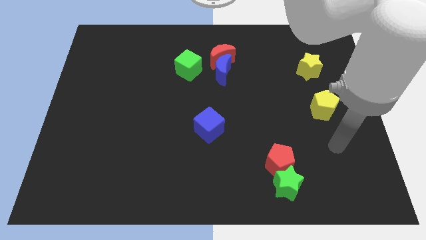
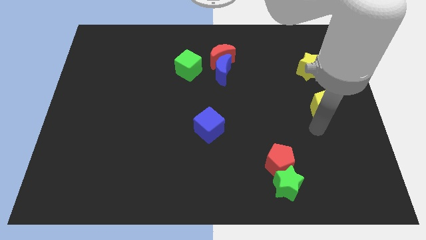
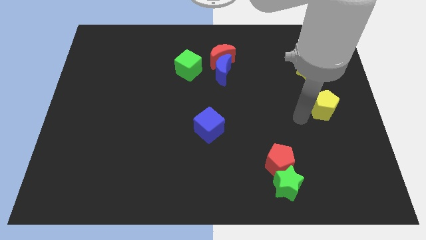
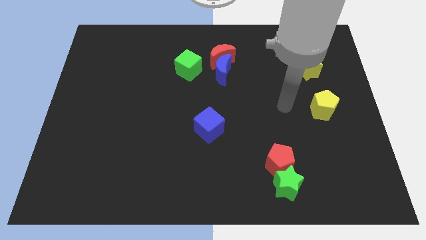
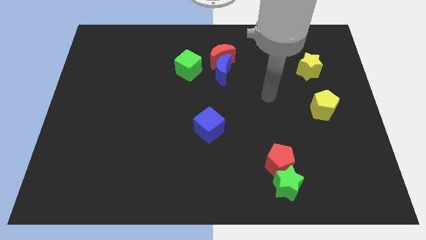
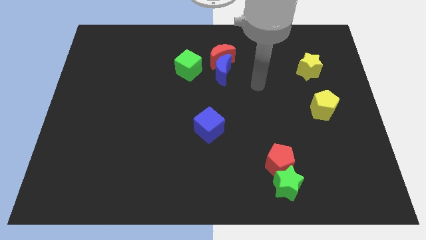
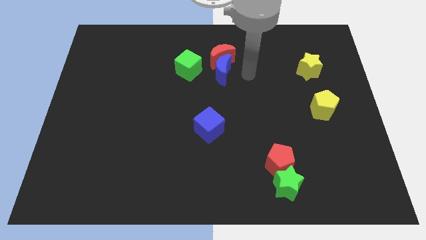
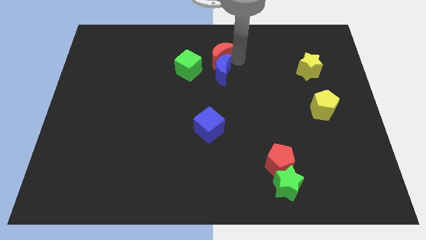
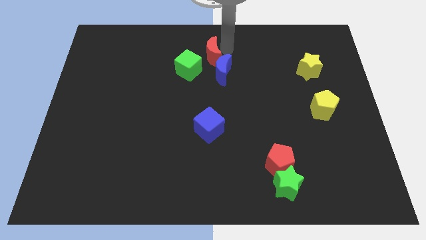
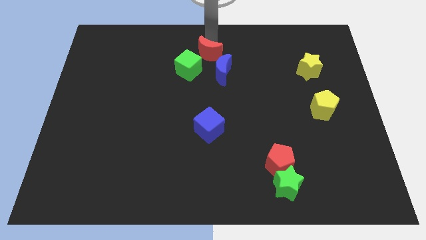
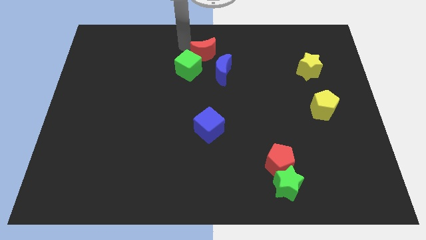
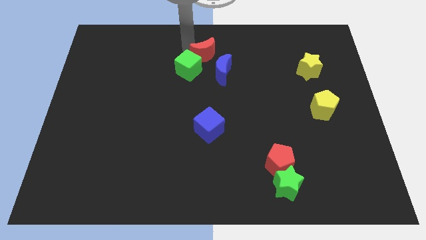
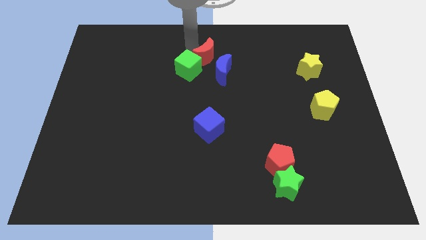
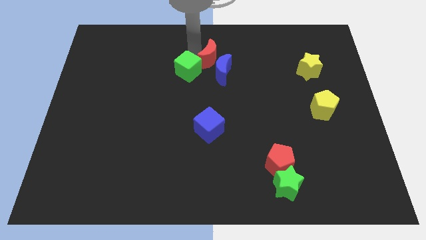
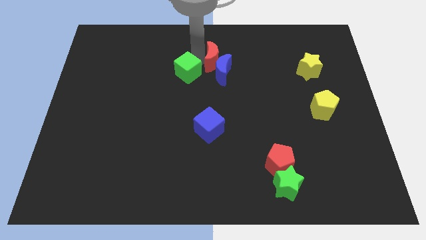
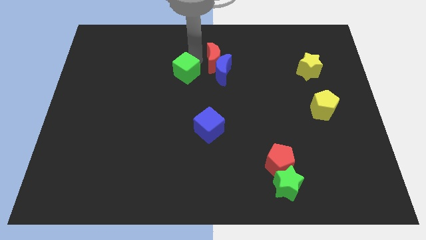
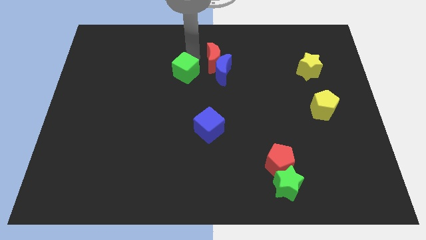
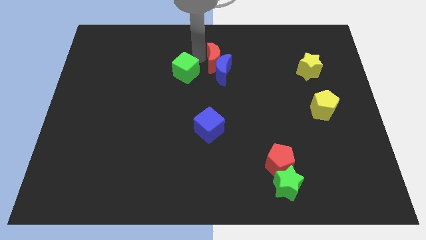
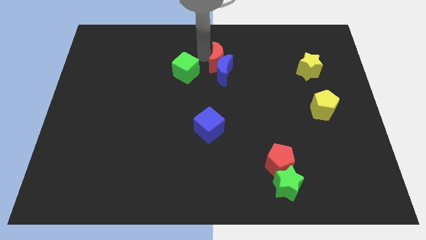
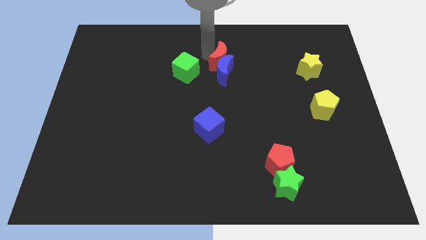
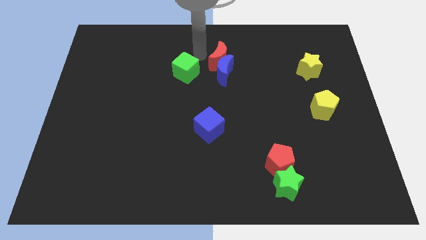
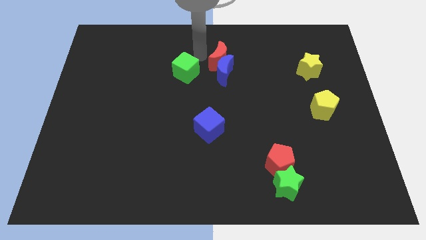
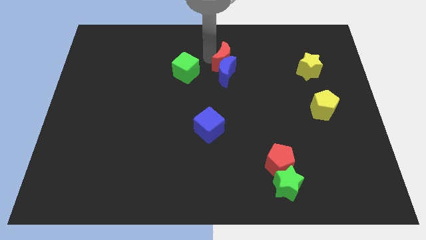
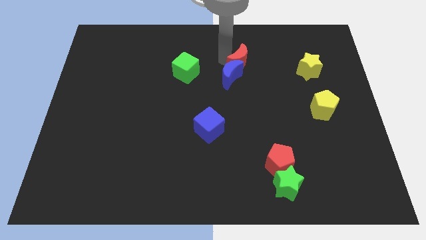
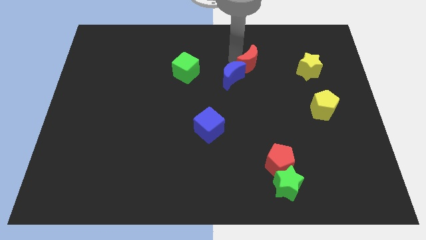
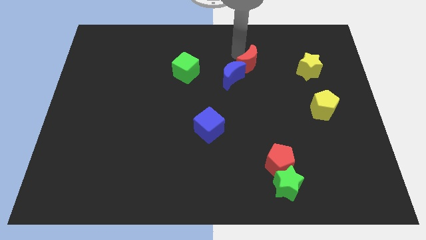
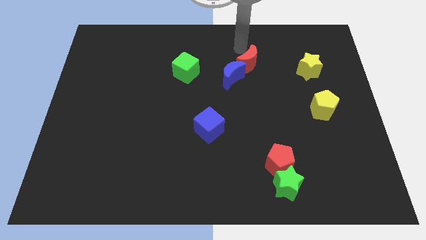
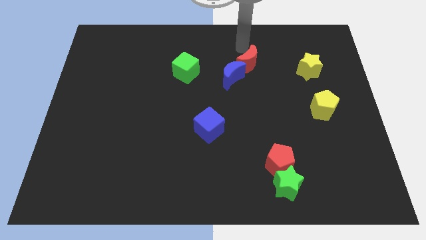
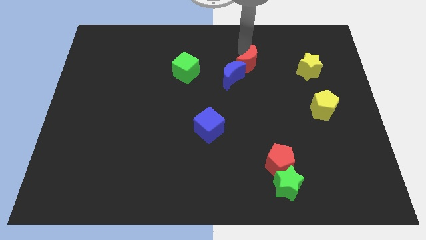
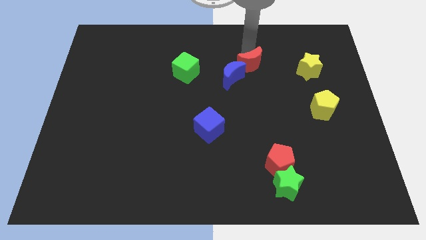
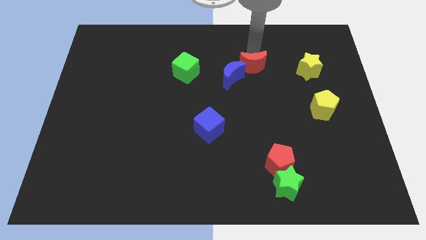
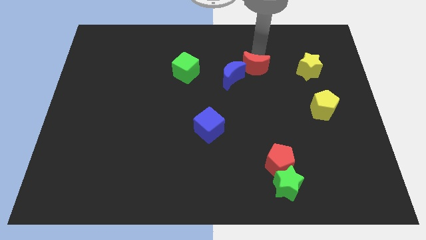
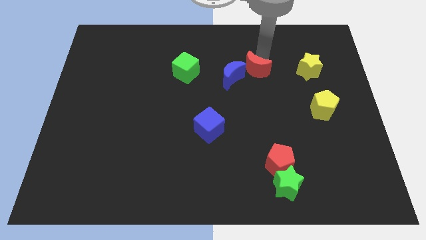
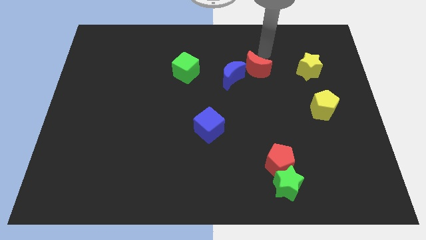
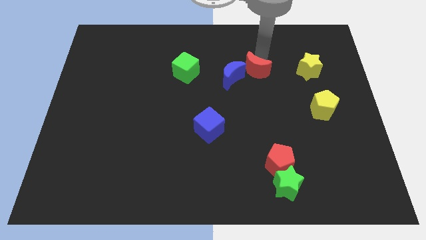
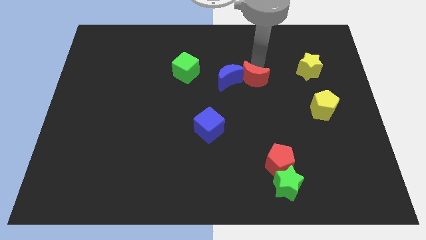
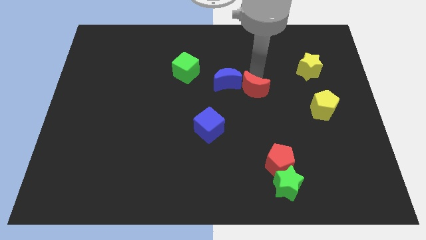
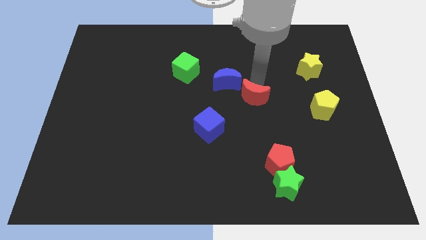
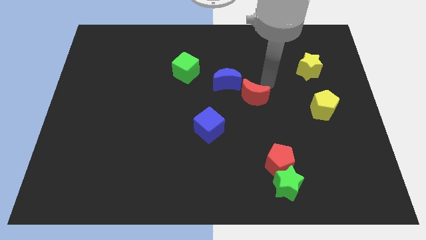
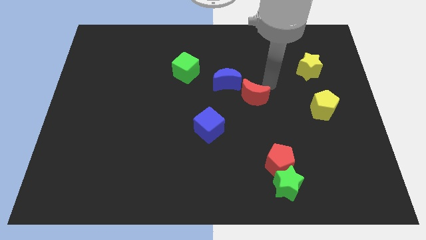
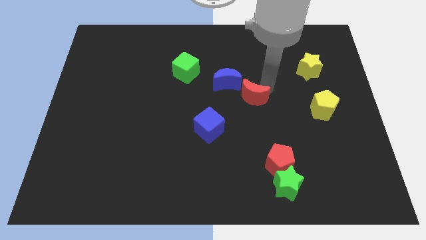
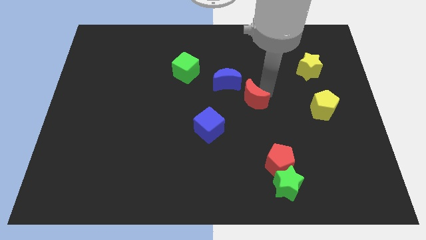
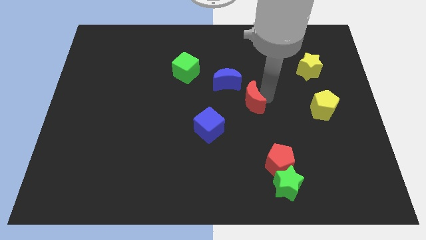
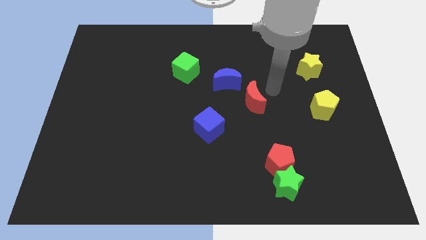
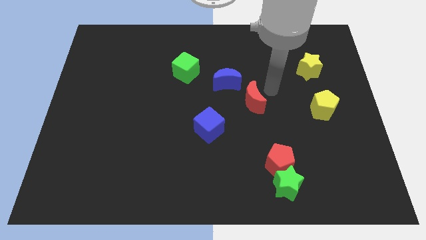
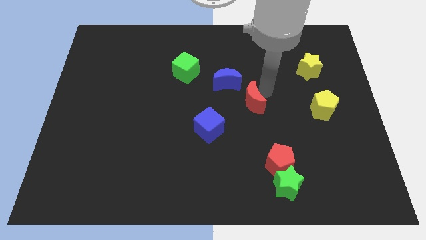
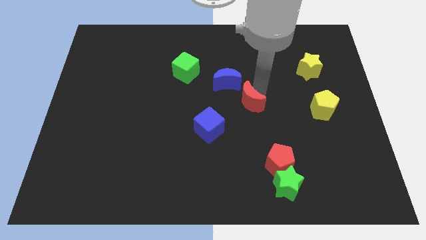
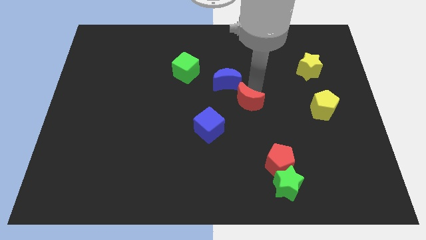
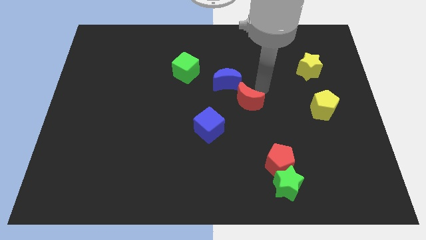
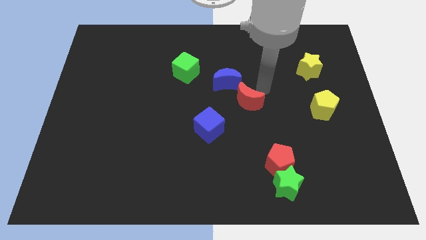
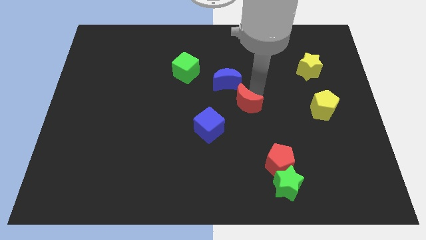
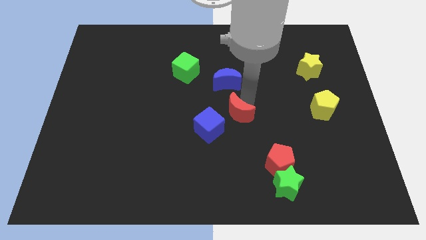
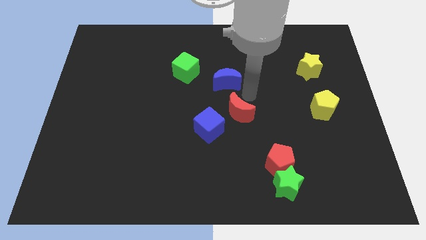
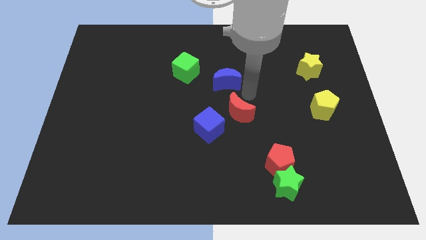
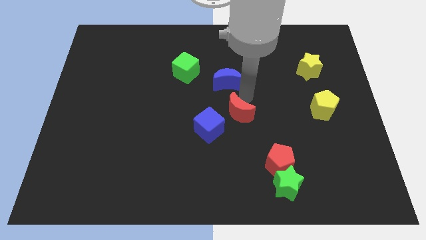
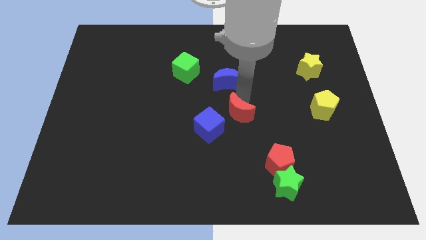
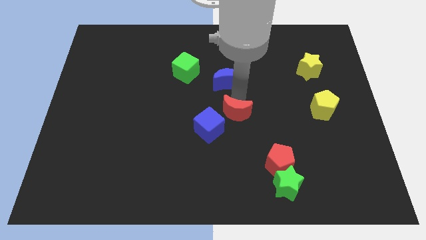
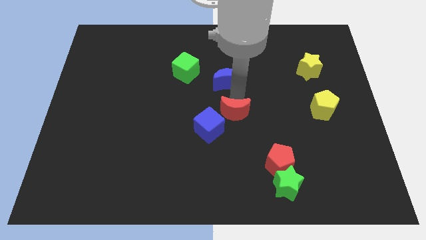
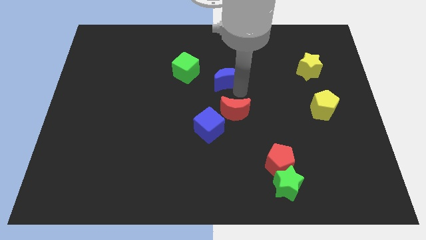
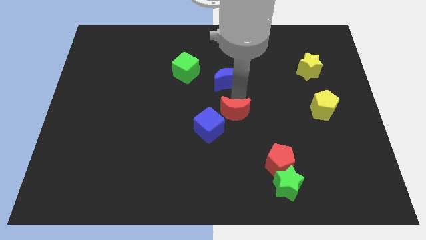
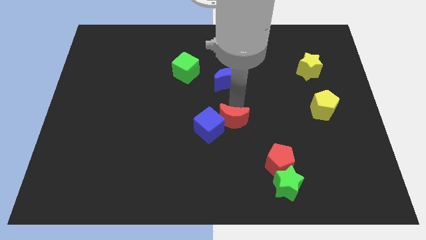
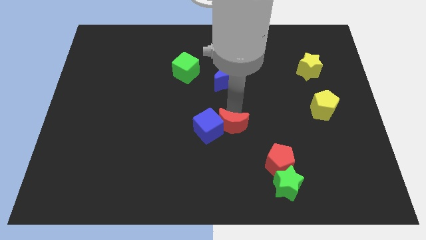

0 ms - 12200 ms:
slide the red moon diagonally down and to the right of the blue cube

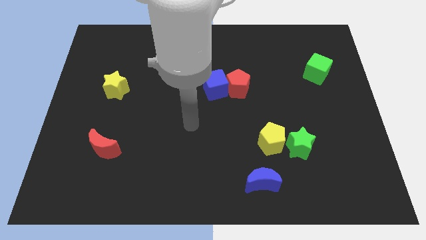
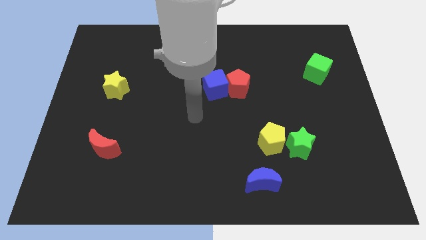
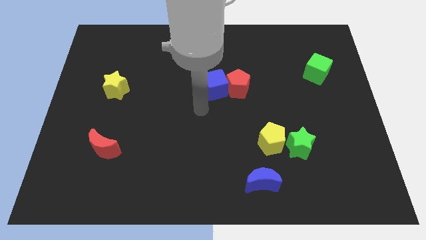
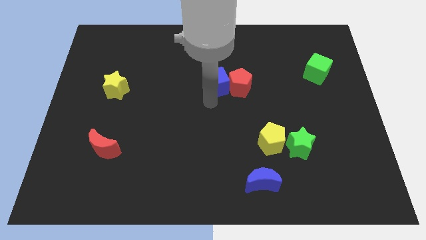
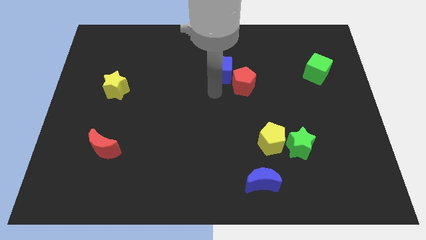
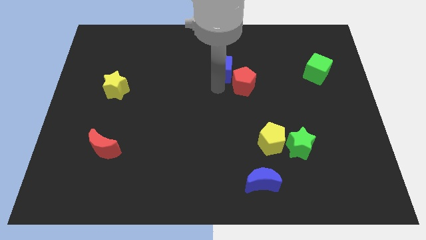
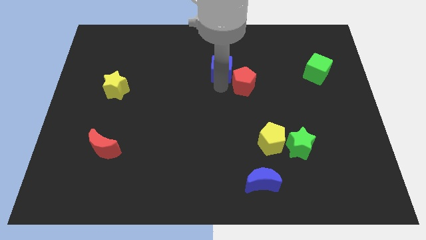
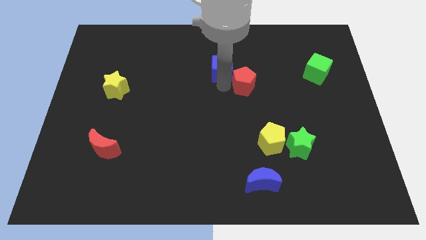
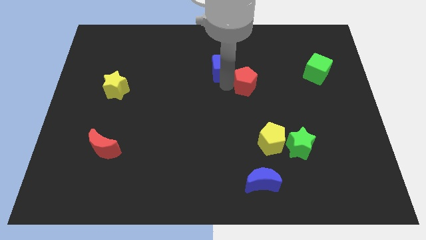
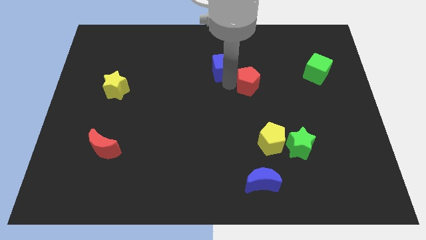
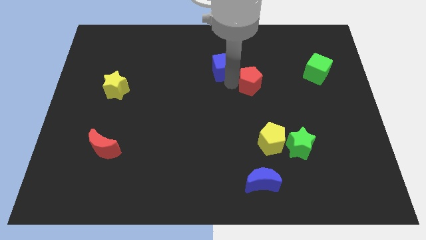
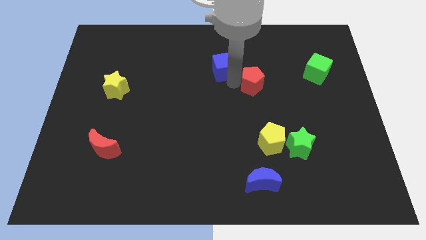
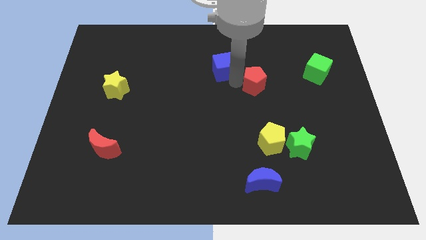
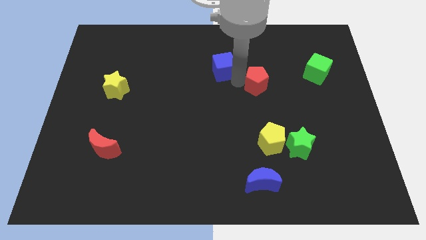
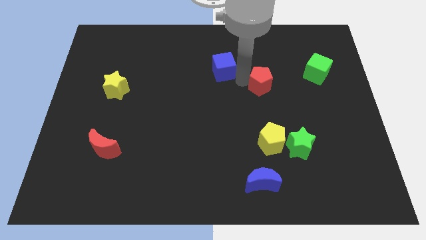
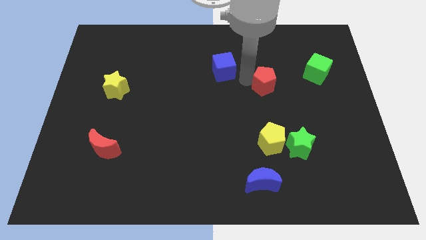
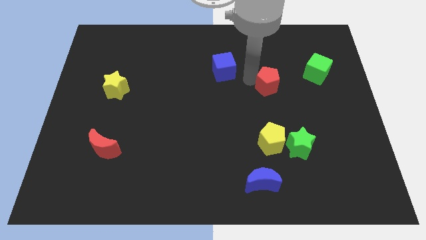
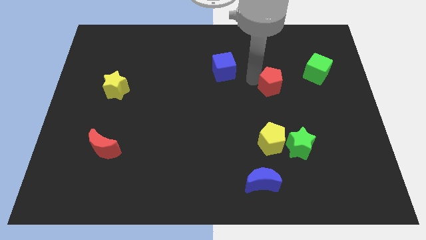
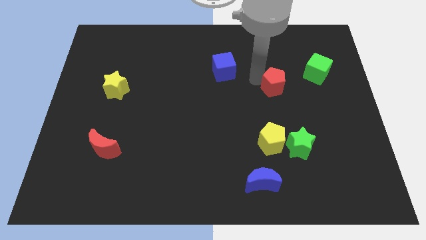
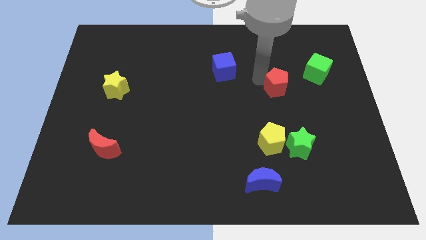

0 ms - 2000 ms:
put the red pentagon diagonally down and to the left of the green cube
